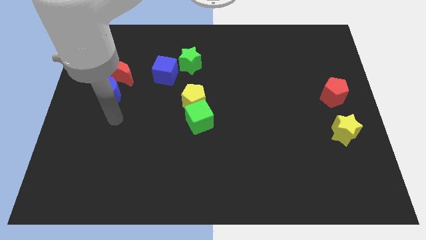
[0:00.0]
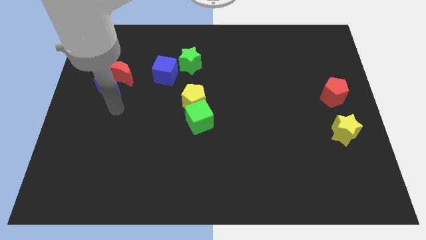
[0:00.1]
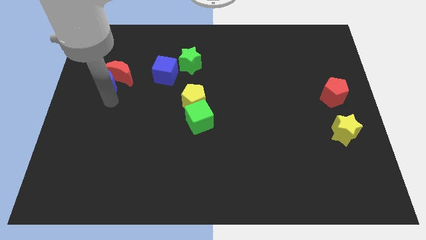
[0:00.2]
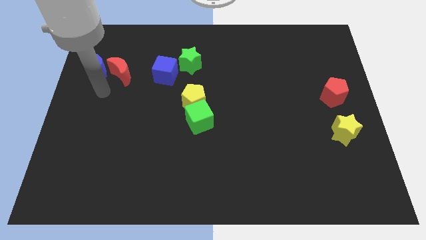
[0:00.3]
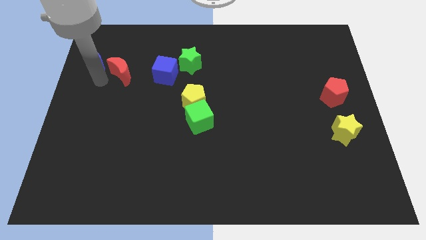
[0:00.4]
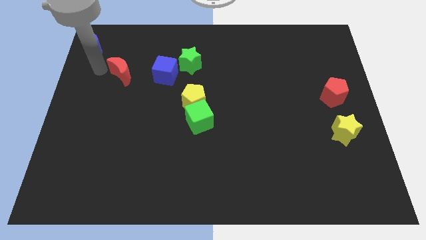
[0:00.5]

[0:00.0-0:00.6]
pull the red moon apart from the blue moon

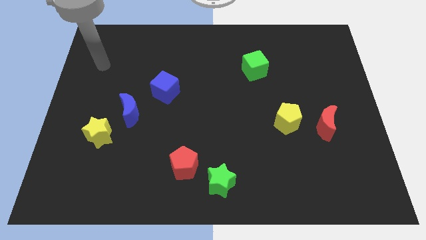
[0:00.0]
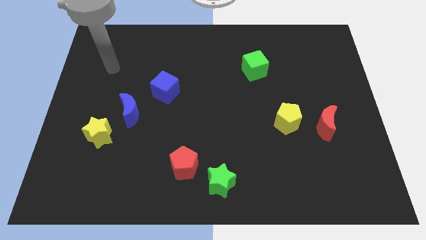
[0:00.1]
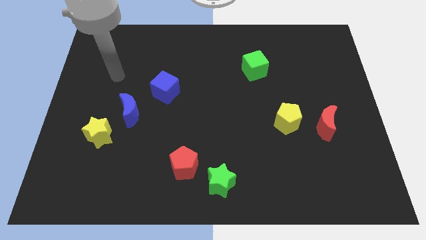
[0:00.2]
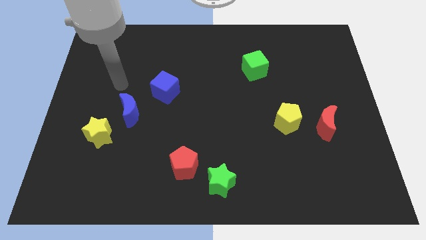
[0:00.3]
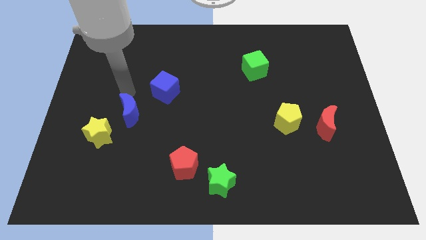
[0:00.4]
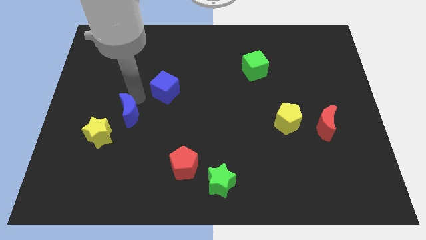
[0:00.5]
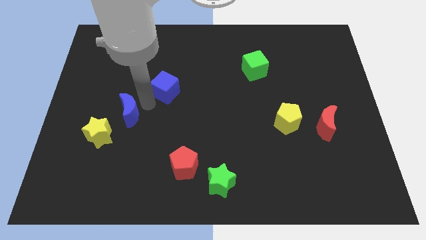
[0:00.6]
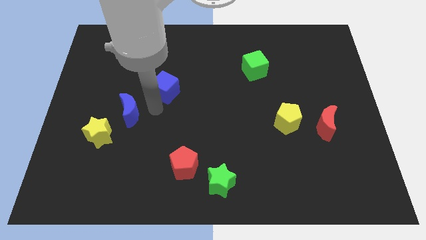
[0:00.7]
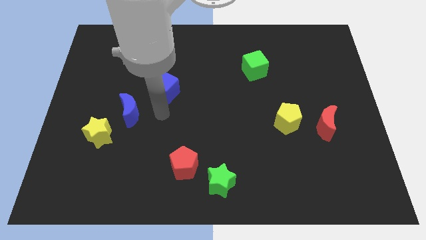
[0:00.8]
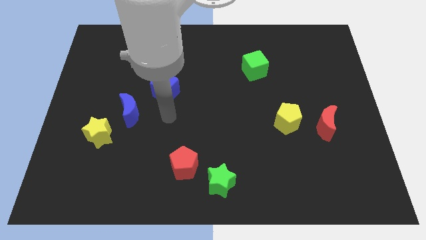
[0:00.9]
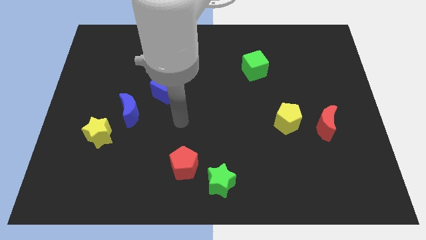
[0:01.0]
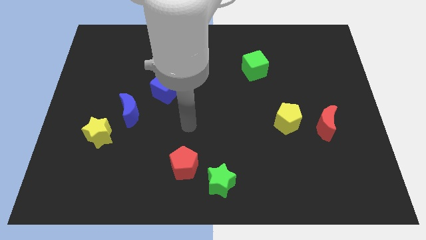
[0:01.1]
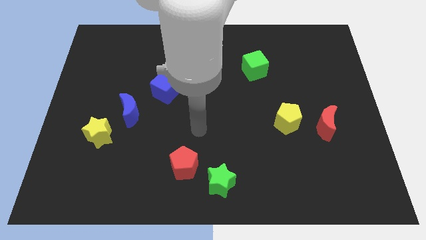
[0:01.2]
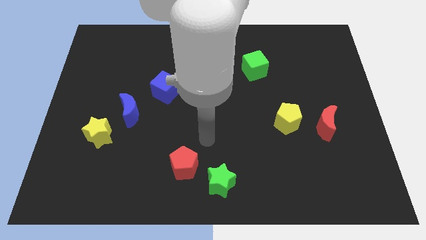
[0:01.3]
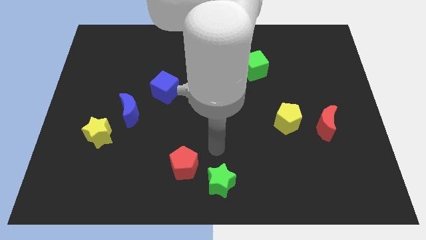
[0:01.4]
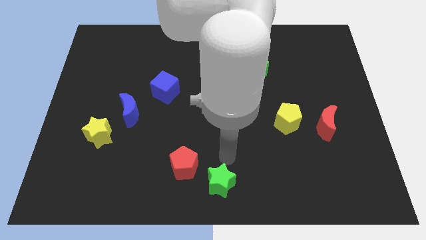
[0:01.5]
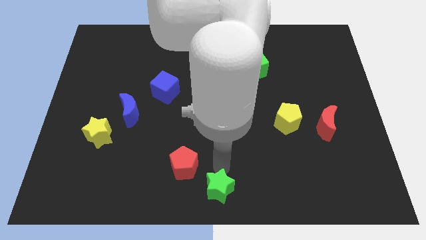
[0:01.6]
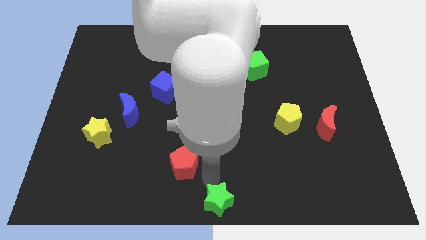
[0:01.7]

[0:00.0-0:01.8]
pull the red pentagon apart from the green star

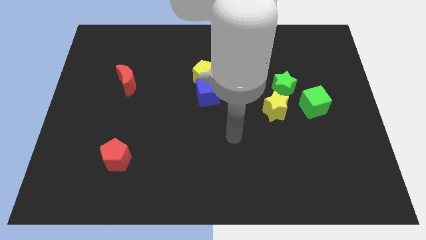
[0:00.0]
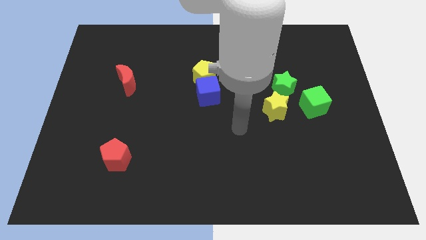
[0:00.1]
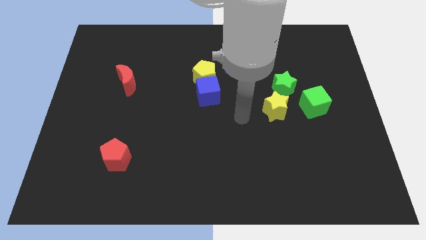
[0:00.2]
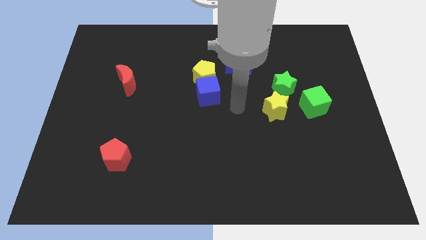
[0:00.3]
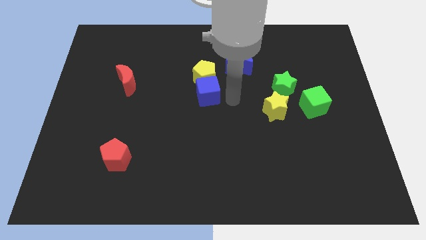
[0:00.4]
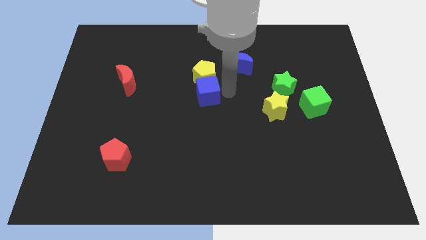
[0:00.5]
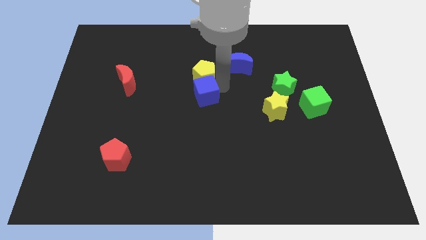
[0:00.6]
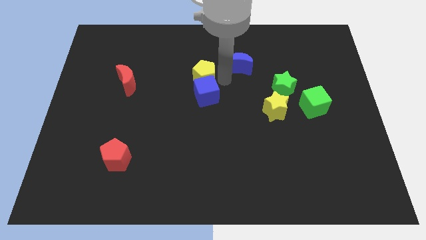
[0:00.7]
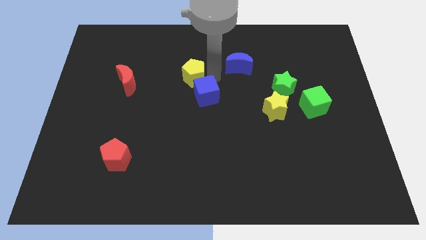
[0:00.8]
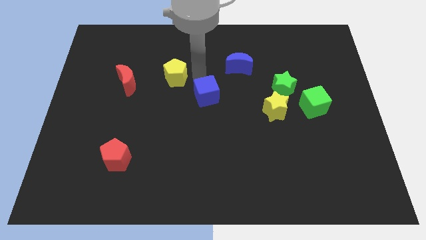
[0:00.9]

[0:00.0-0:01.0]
move the blue cube away from the yellow pentagon

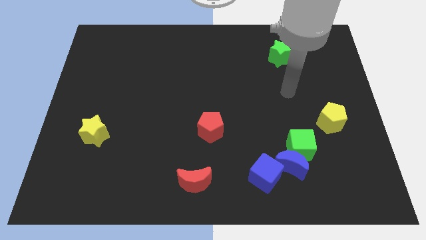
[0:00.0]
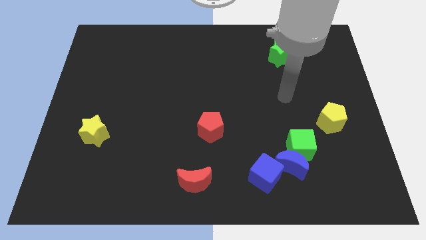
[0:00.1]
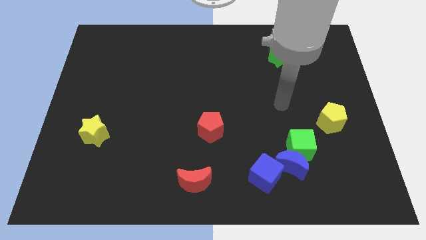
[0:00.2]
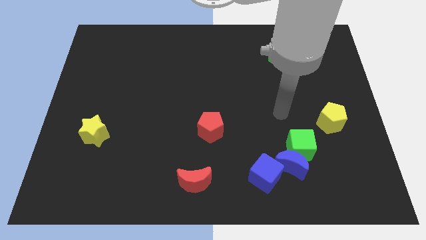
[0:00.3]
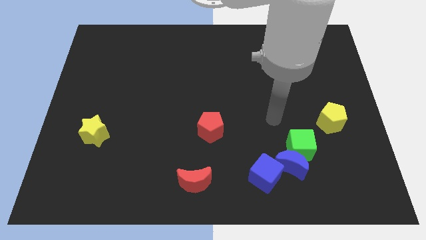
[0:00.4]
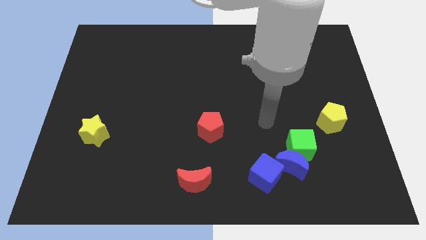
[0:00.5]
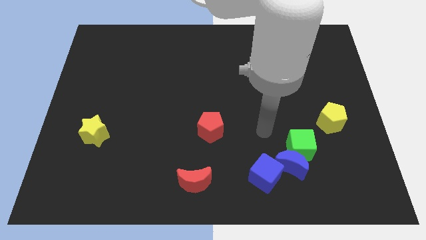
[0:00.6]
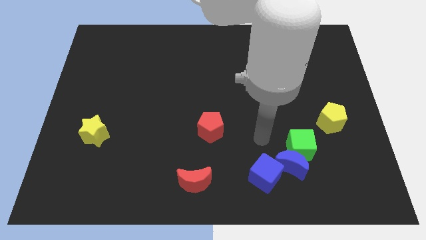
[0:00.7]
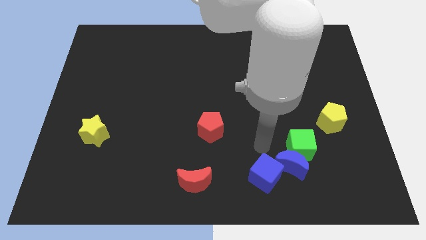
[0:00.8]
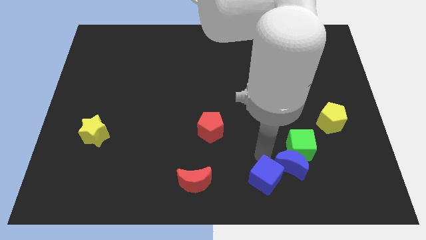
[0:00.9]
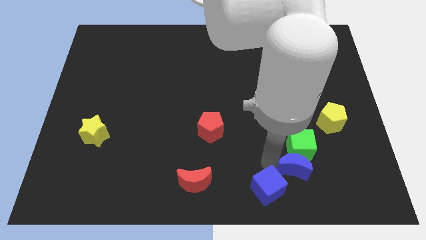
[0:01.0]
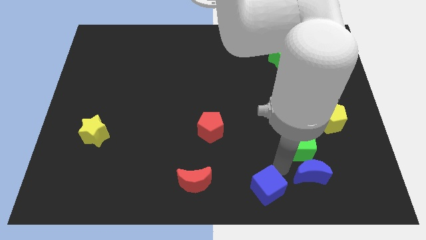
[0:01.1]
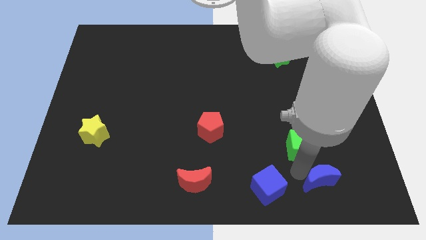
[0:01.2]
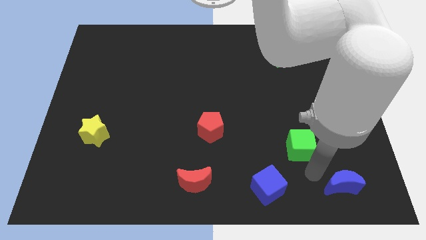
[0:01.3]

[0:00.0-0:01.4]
pull the green cube apart from the blue moon

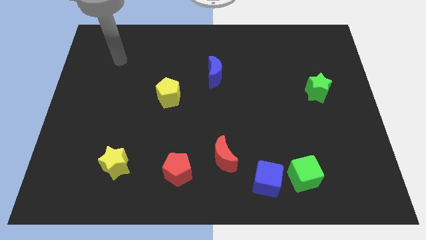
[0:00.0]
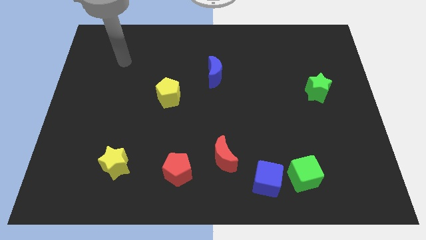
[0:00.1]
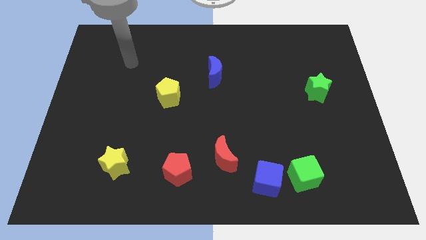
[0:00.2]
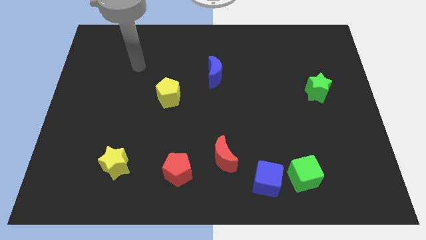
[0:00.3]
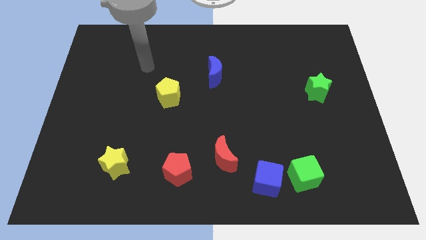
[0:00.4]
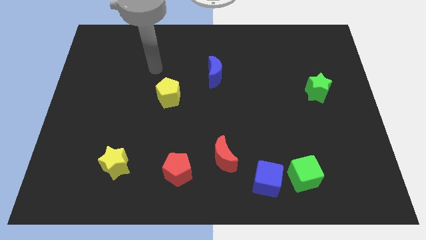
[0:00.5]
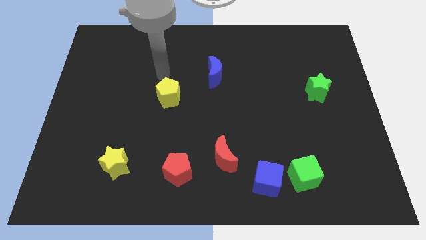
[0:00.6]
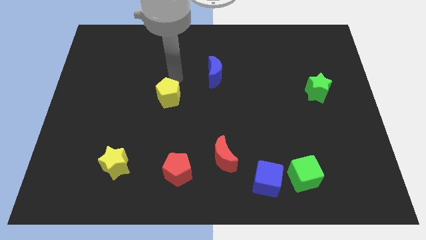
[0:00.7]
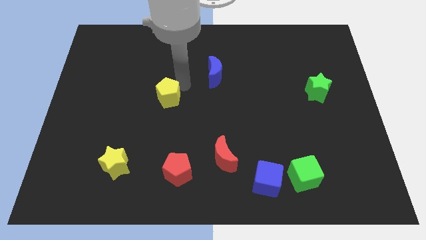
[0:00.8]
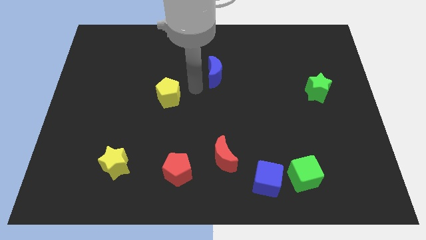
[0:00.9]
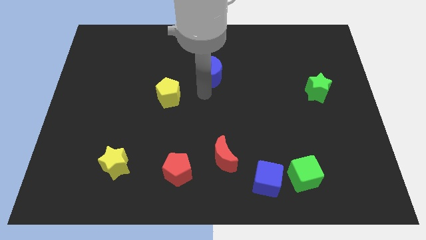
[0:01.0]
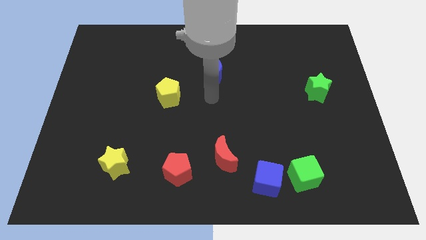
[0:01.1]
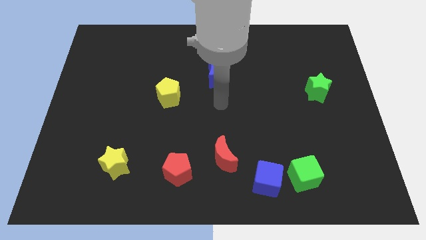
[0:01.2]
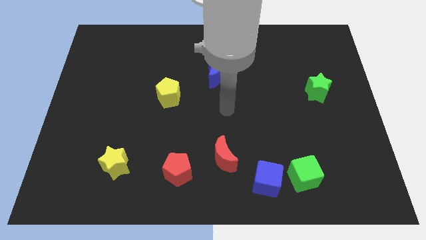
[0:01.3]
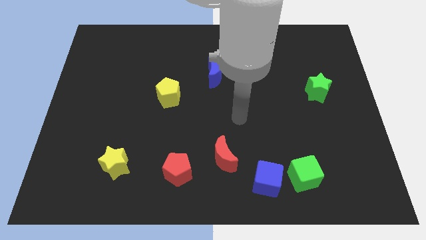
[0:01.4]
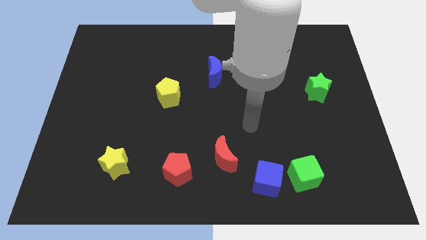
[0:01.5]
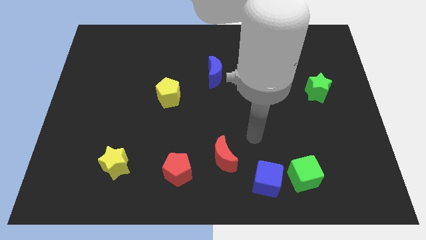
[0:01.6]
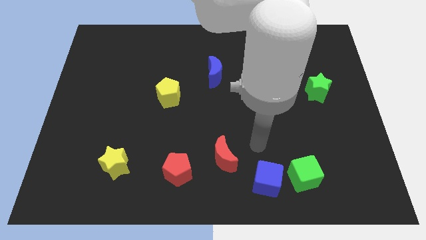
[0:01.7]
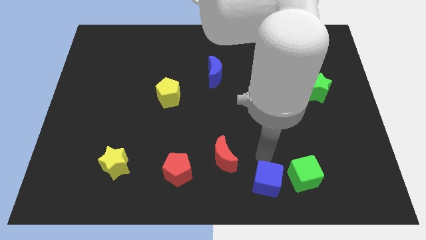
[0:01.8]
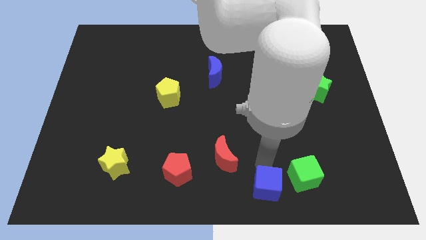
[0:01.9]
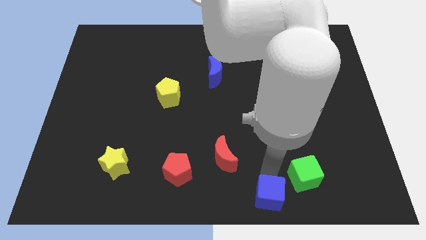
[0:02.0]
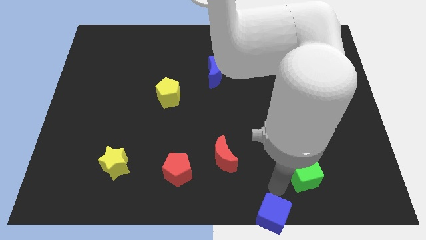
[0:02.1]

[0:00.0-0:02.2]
move the green cube away from the blue cube

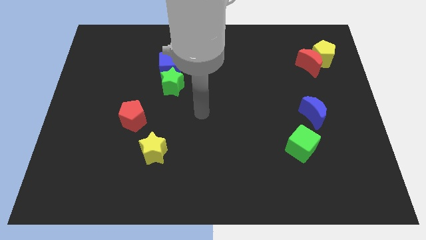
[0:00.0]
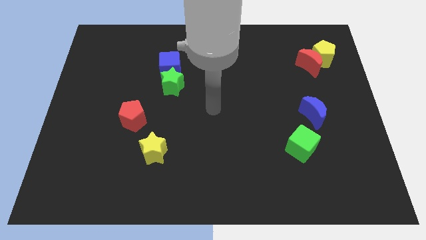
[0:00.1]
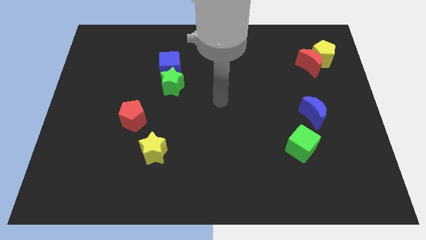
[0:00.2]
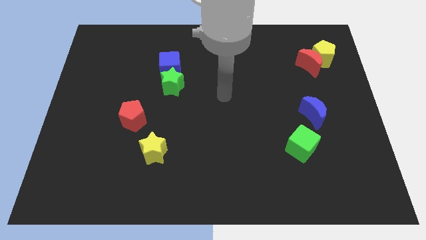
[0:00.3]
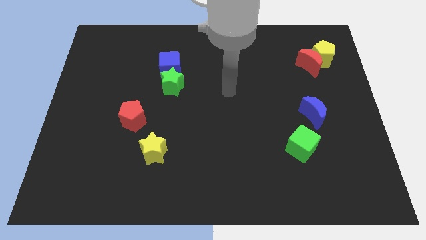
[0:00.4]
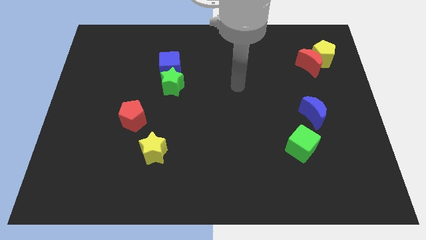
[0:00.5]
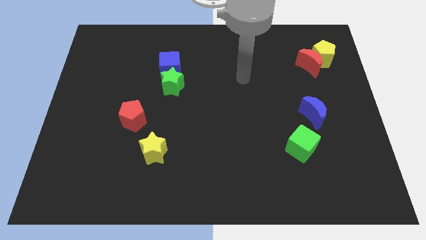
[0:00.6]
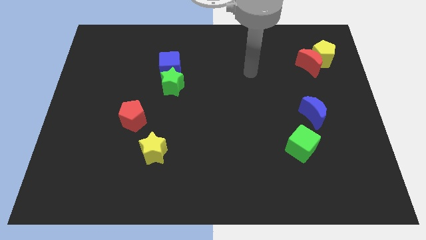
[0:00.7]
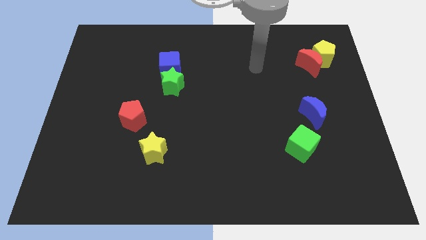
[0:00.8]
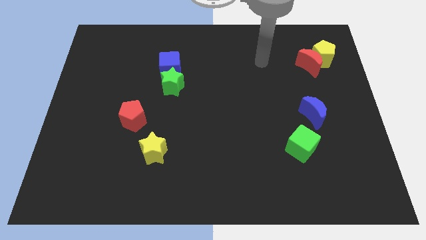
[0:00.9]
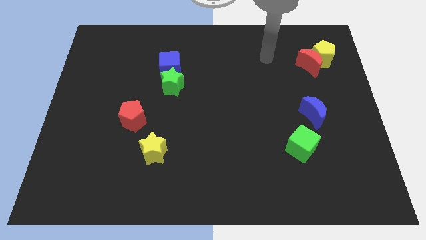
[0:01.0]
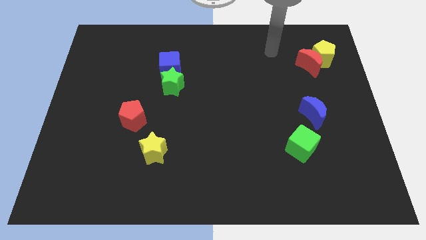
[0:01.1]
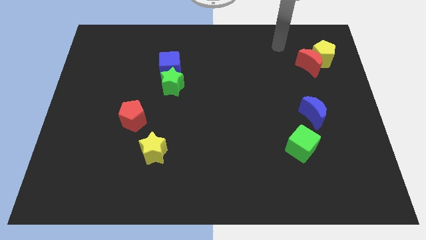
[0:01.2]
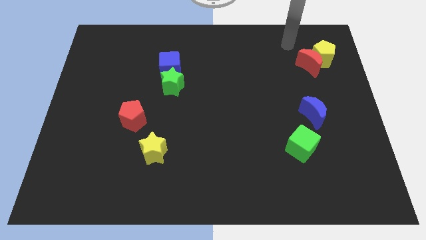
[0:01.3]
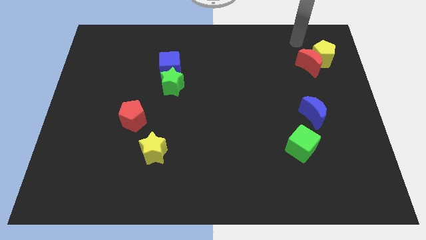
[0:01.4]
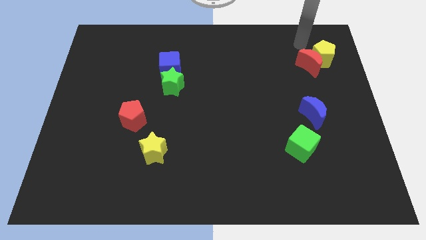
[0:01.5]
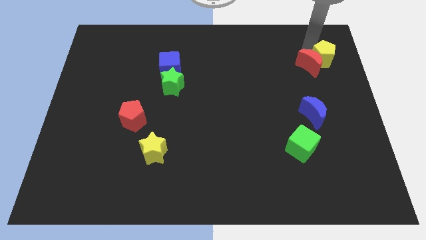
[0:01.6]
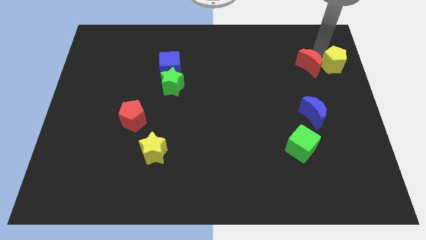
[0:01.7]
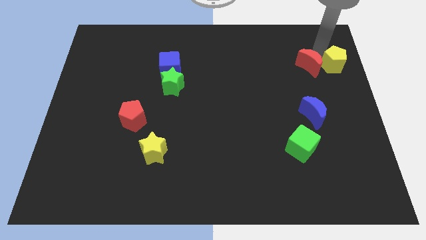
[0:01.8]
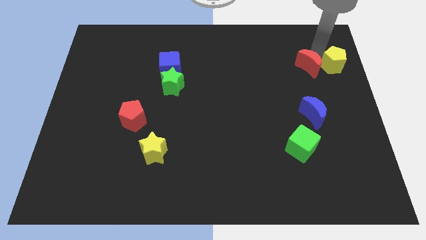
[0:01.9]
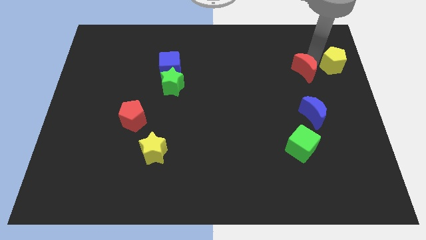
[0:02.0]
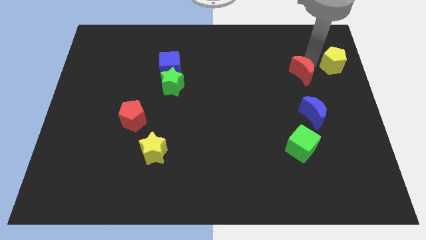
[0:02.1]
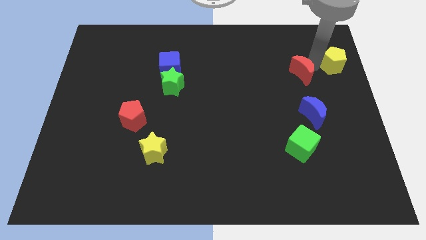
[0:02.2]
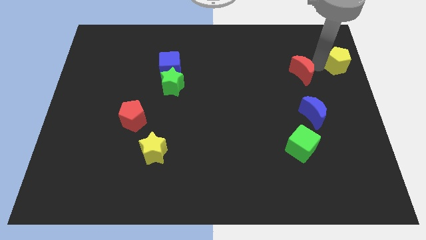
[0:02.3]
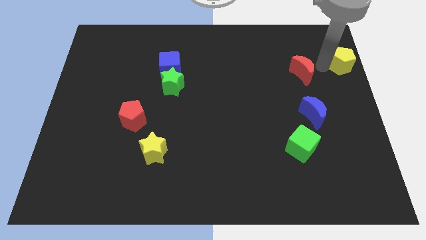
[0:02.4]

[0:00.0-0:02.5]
move the red moon away from the yellow pentagon
